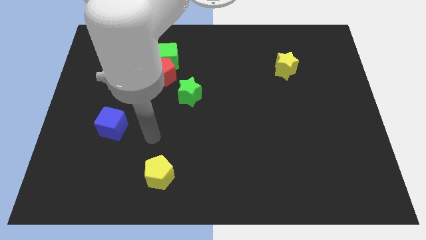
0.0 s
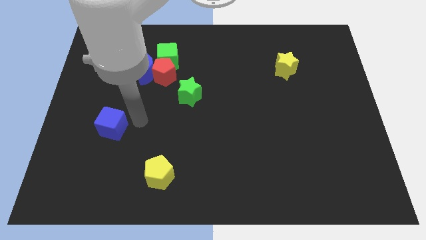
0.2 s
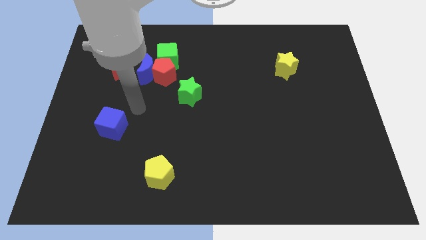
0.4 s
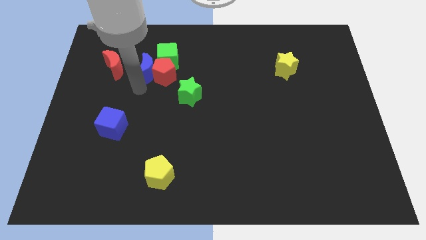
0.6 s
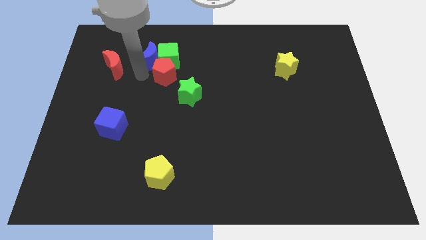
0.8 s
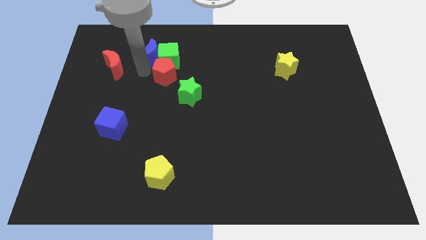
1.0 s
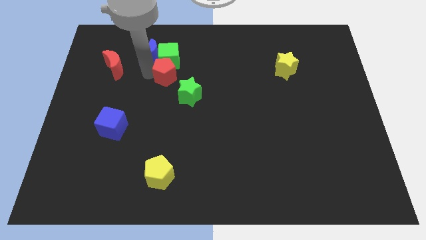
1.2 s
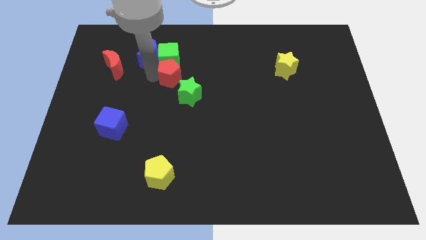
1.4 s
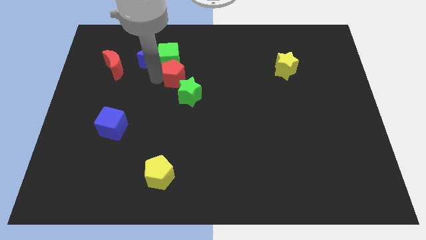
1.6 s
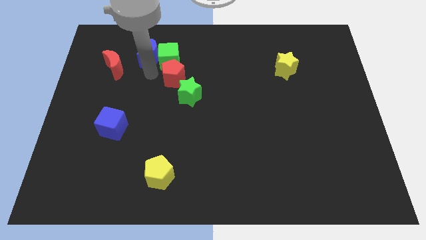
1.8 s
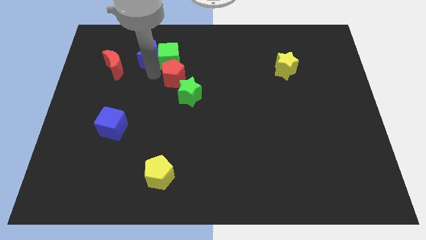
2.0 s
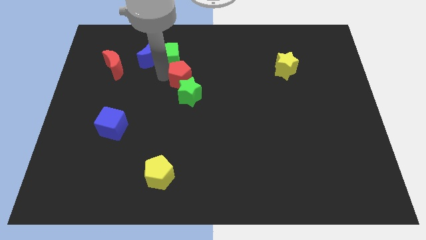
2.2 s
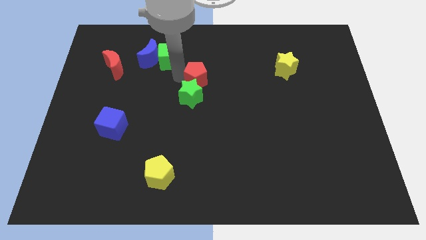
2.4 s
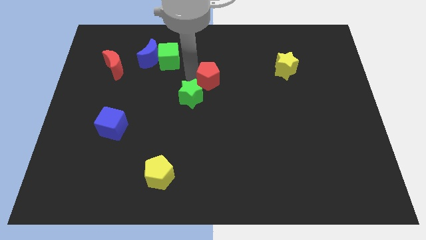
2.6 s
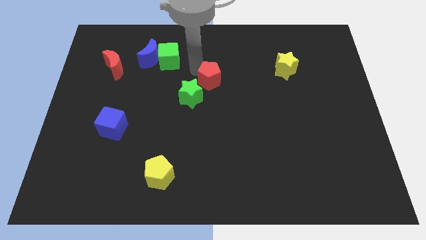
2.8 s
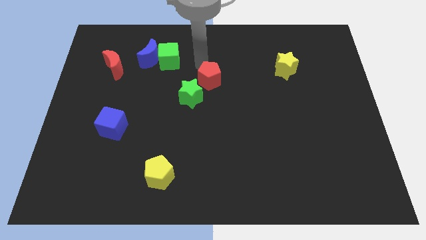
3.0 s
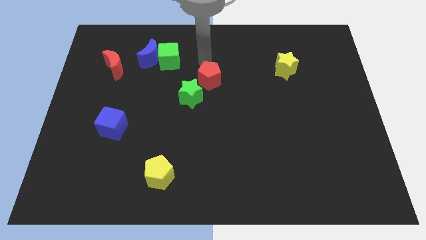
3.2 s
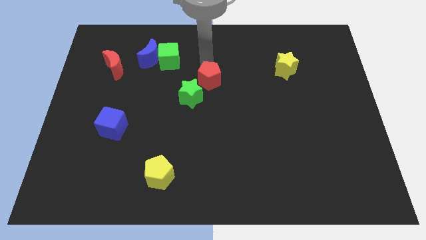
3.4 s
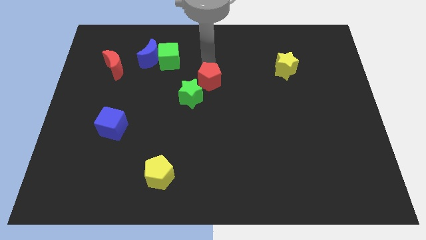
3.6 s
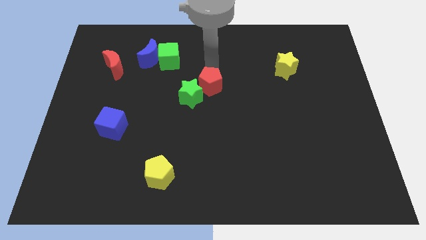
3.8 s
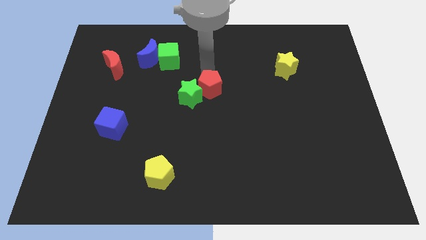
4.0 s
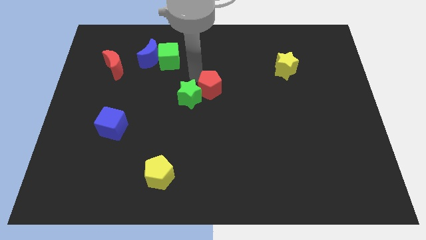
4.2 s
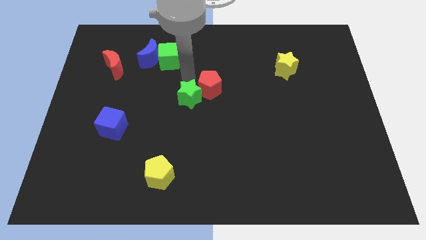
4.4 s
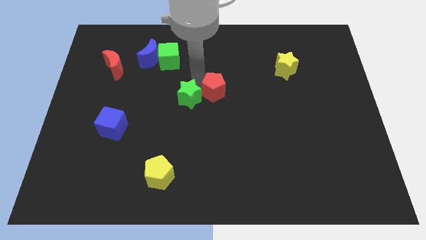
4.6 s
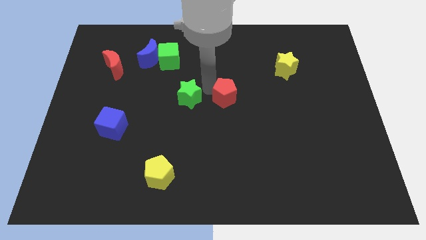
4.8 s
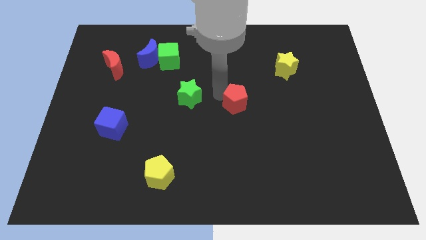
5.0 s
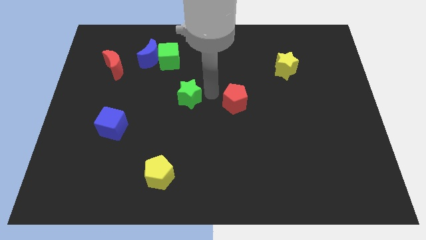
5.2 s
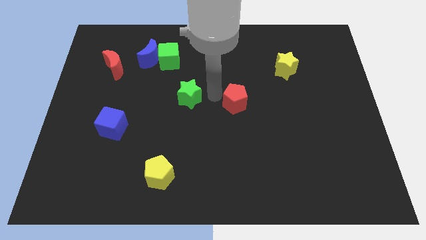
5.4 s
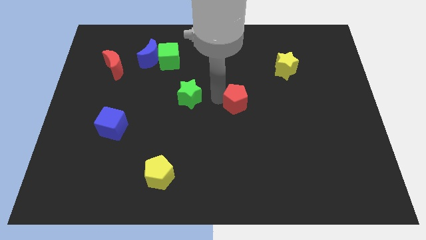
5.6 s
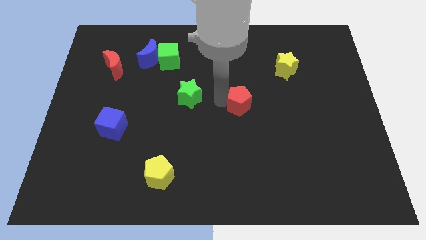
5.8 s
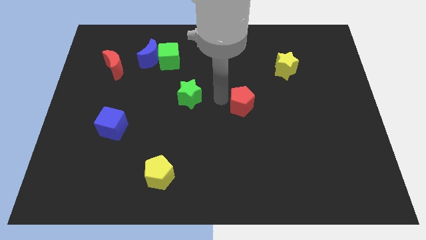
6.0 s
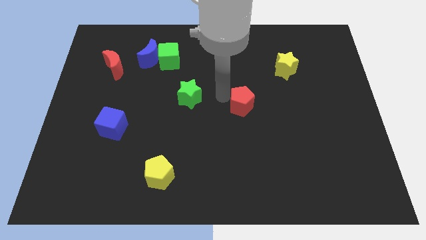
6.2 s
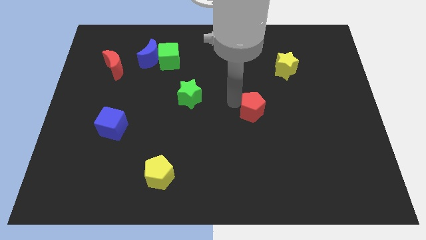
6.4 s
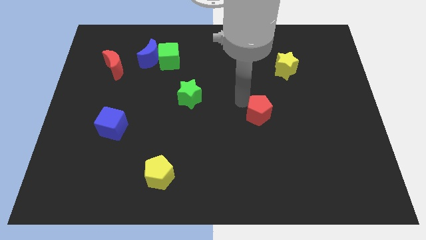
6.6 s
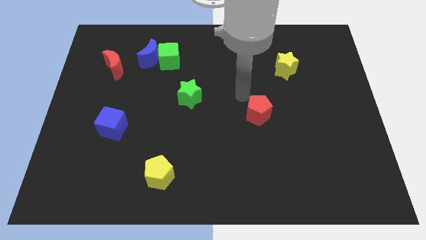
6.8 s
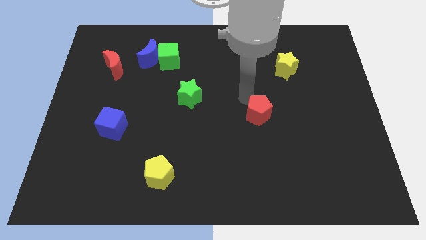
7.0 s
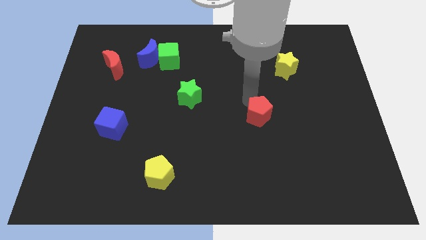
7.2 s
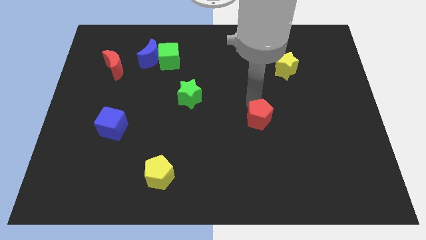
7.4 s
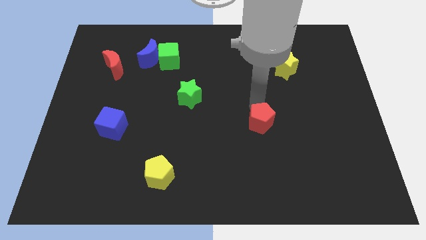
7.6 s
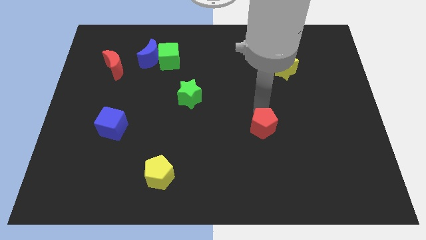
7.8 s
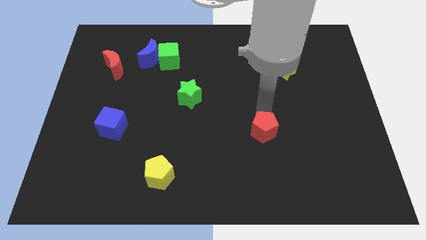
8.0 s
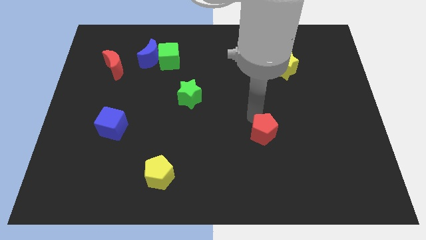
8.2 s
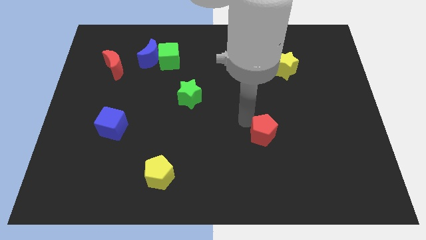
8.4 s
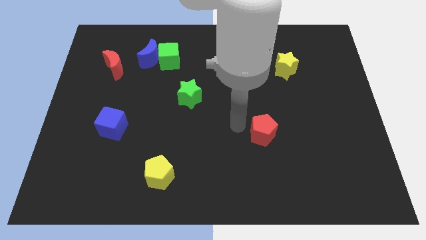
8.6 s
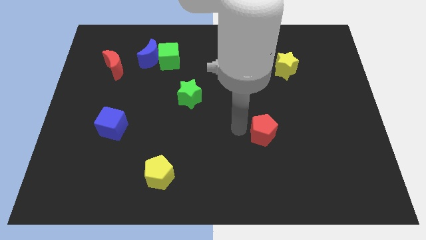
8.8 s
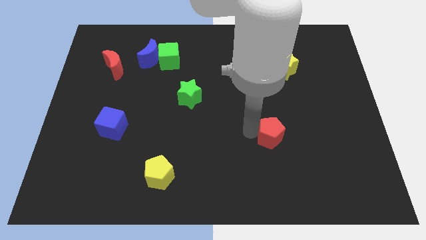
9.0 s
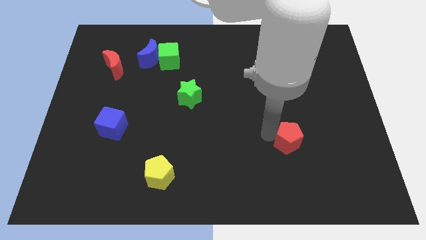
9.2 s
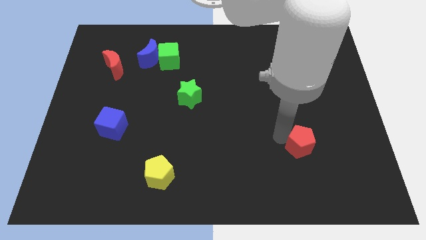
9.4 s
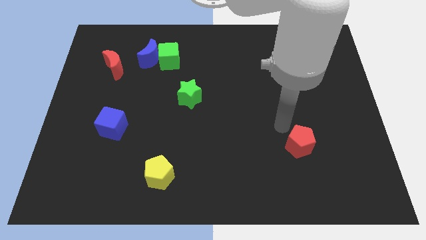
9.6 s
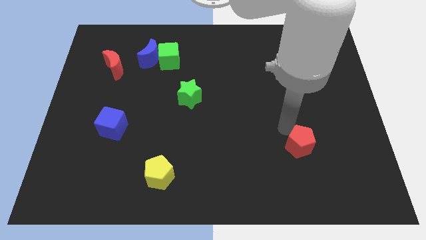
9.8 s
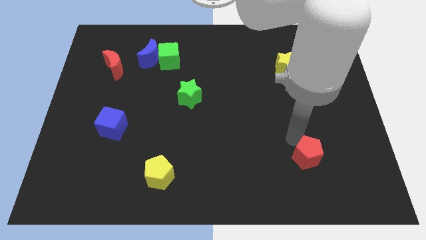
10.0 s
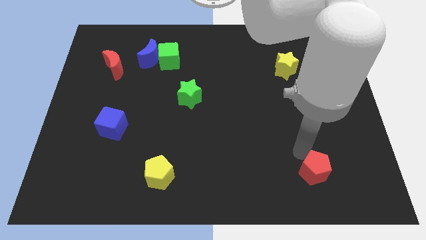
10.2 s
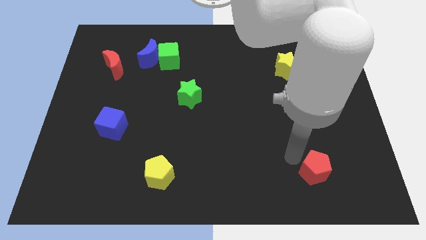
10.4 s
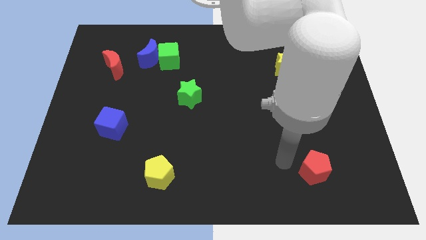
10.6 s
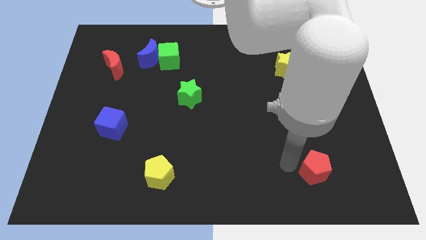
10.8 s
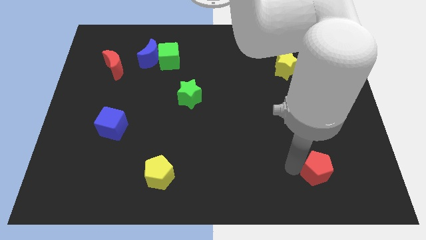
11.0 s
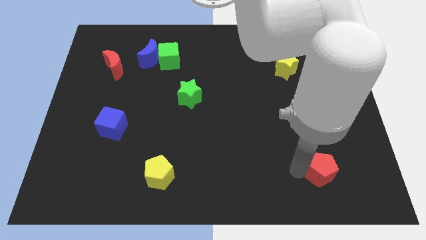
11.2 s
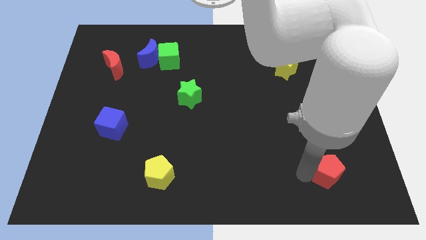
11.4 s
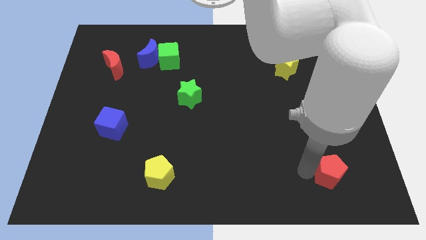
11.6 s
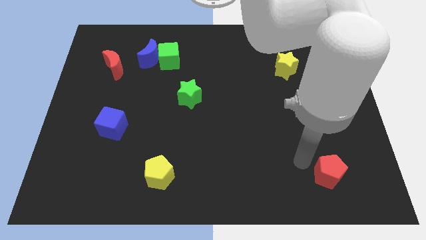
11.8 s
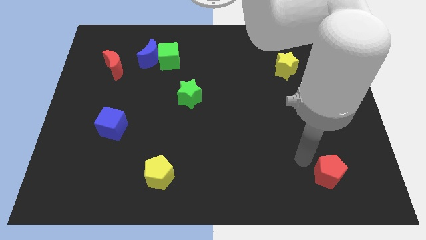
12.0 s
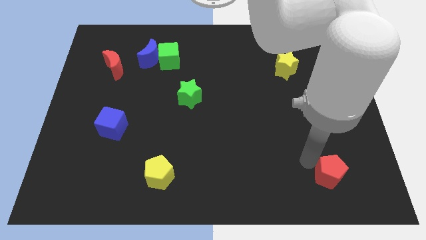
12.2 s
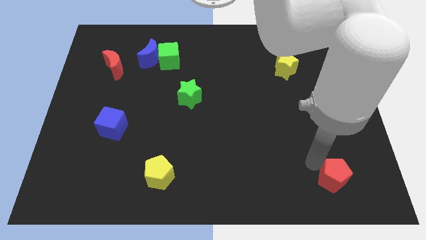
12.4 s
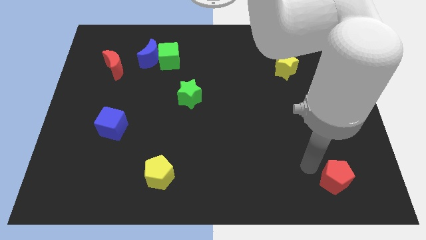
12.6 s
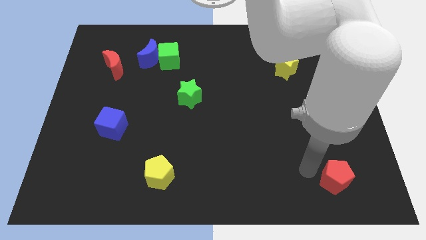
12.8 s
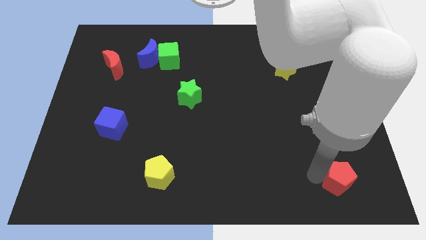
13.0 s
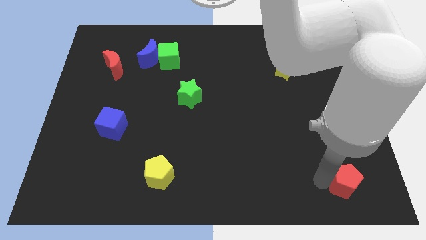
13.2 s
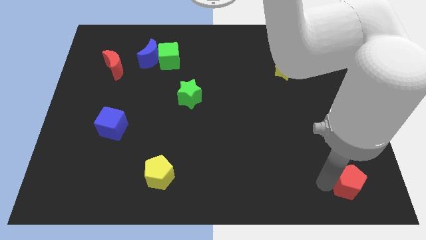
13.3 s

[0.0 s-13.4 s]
move the red pentagon to the bottom right
